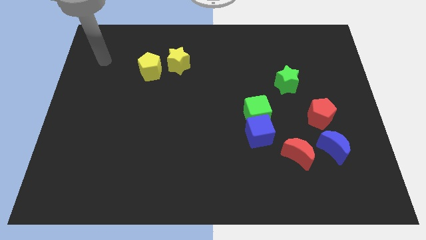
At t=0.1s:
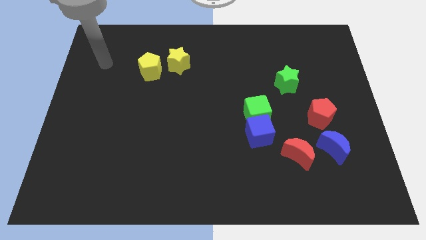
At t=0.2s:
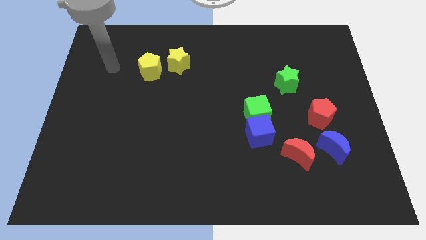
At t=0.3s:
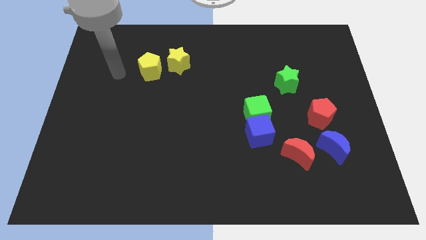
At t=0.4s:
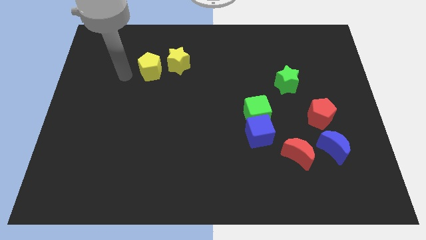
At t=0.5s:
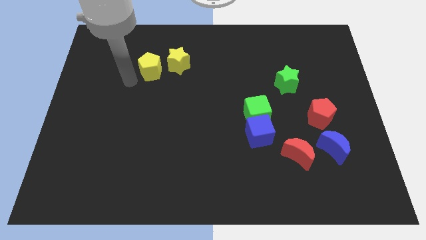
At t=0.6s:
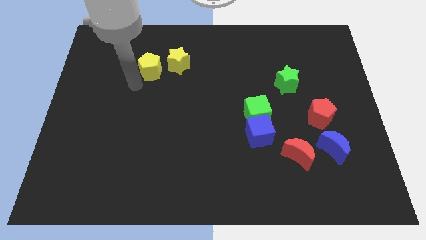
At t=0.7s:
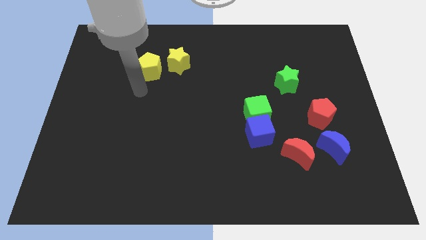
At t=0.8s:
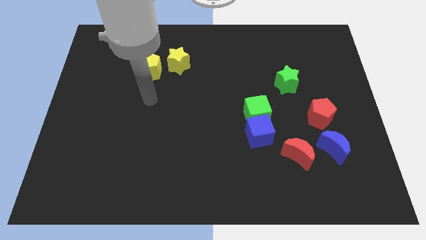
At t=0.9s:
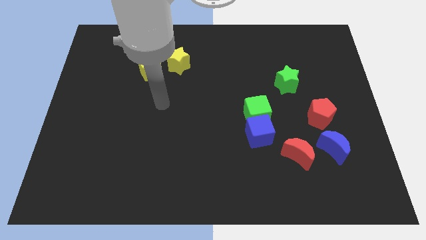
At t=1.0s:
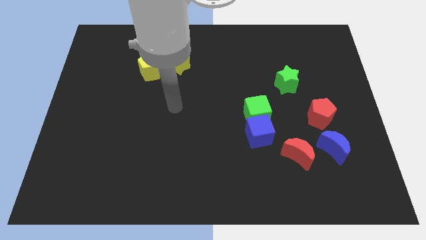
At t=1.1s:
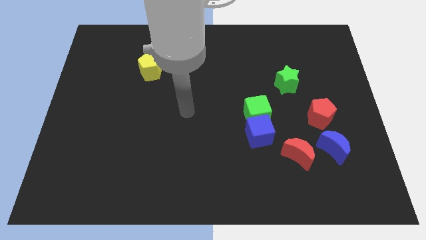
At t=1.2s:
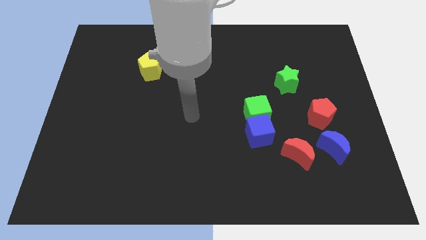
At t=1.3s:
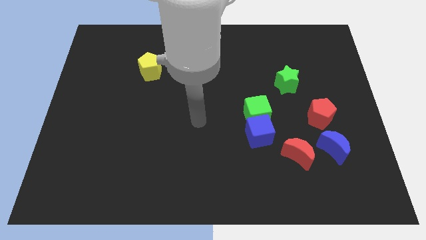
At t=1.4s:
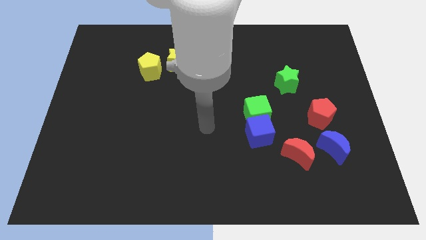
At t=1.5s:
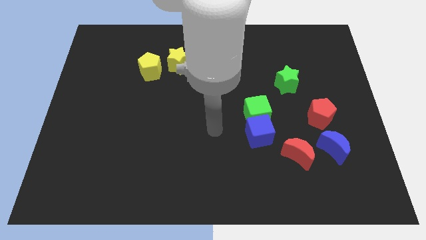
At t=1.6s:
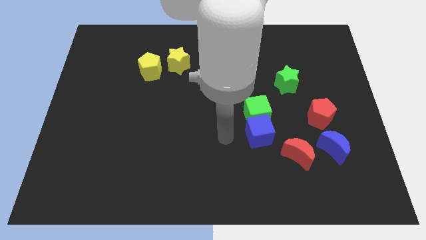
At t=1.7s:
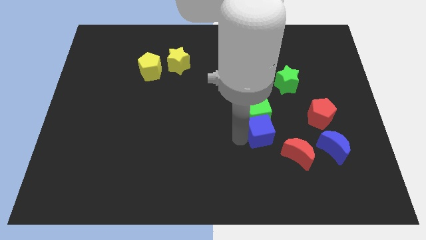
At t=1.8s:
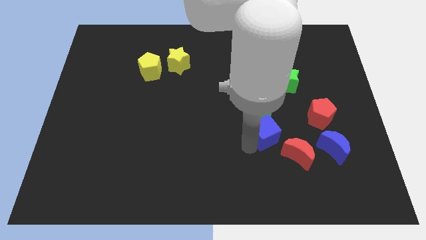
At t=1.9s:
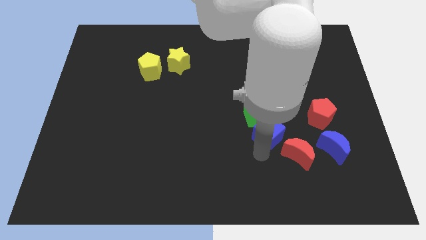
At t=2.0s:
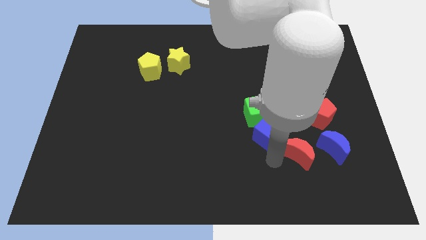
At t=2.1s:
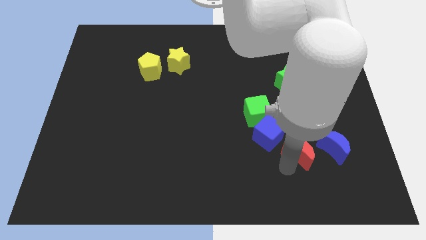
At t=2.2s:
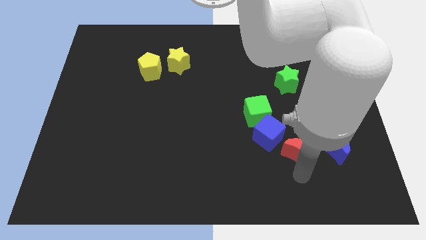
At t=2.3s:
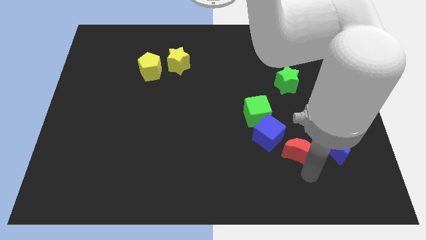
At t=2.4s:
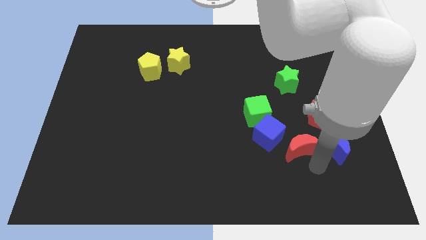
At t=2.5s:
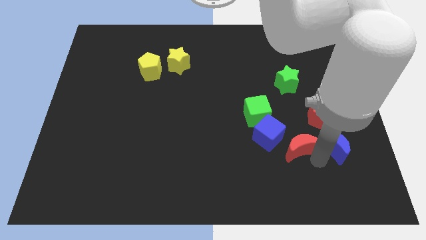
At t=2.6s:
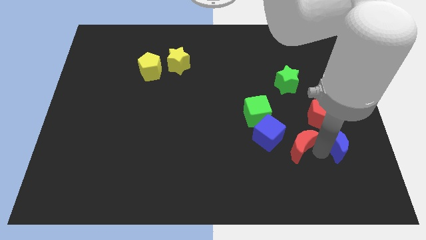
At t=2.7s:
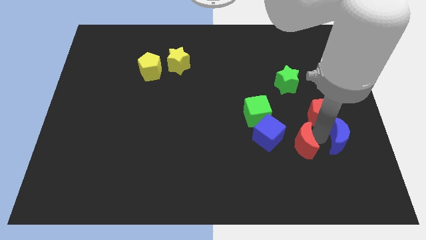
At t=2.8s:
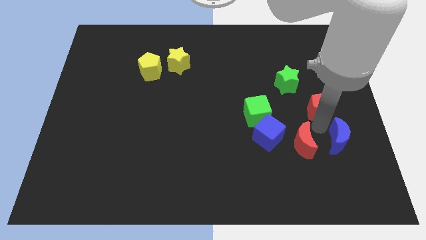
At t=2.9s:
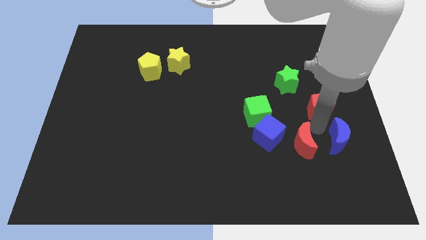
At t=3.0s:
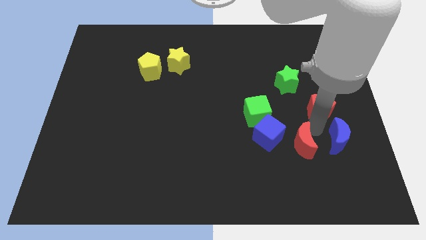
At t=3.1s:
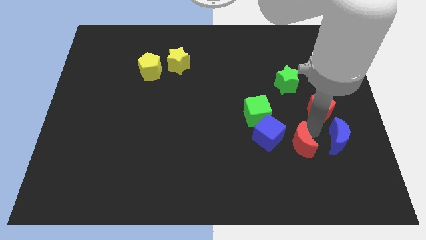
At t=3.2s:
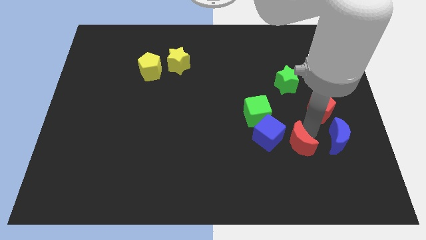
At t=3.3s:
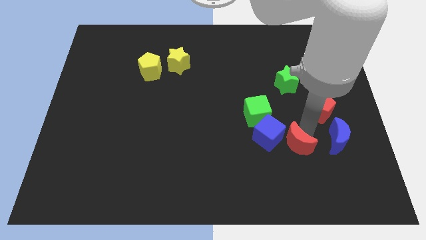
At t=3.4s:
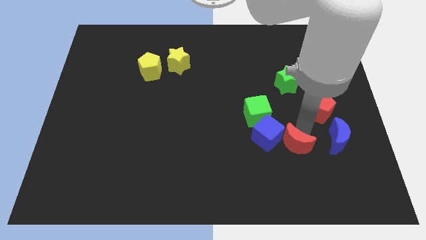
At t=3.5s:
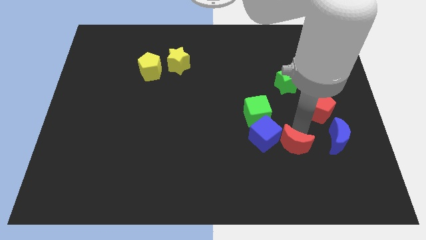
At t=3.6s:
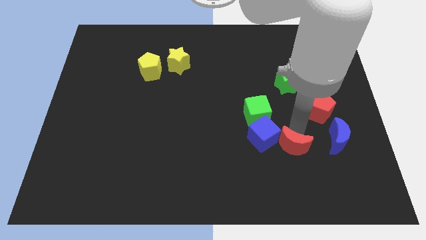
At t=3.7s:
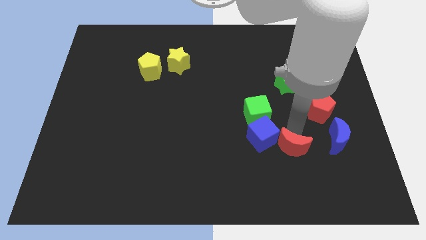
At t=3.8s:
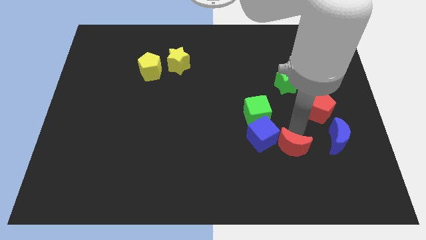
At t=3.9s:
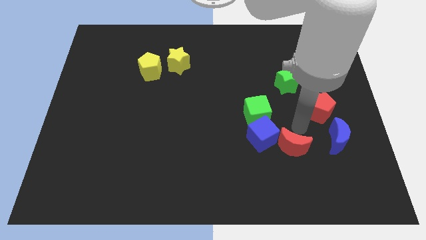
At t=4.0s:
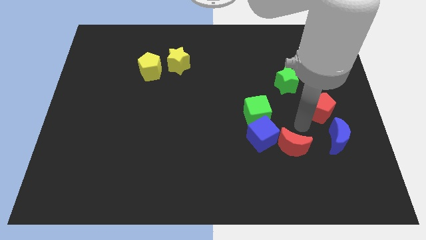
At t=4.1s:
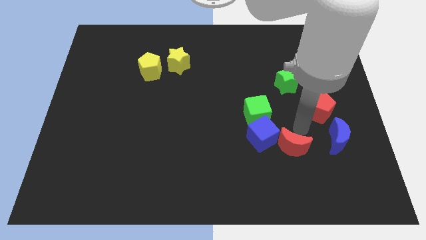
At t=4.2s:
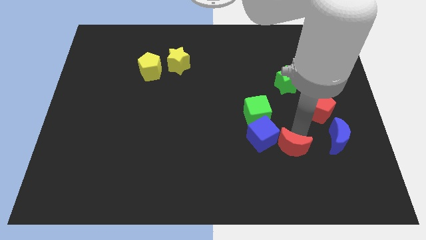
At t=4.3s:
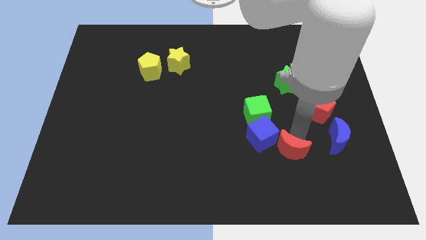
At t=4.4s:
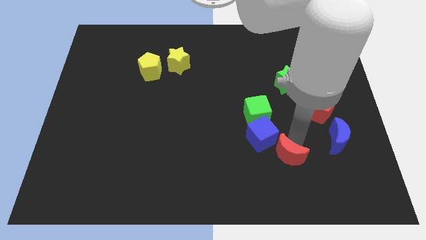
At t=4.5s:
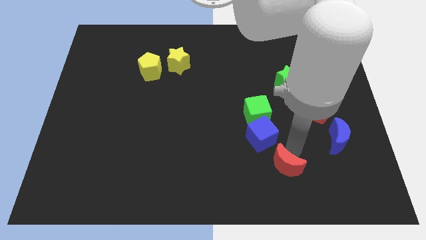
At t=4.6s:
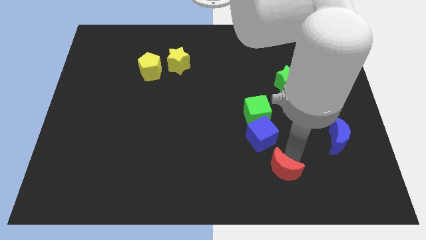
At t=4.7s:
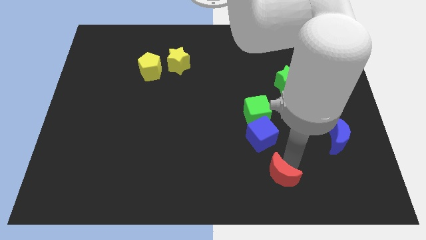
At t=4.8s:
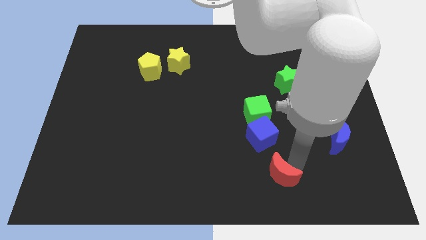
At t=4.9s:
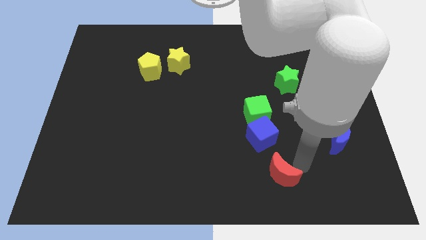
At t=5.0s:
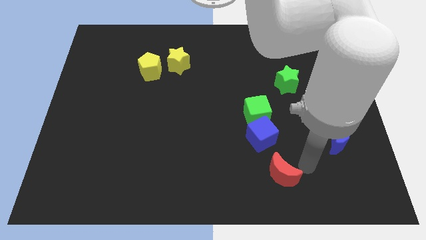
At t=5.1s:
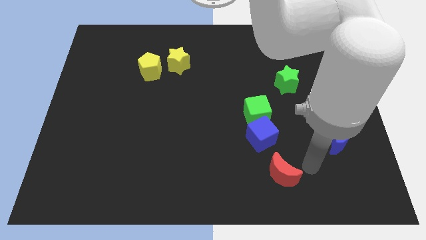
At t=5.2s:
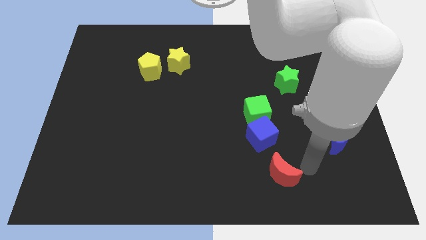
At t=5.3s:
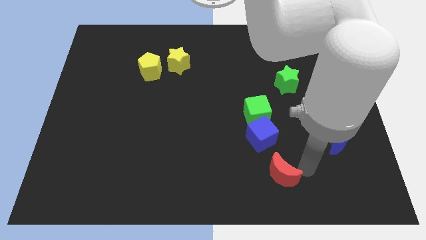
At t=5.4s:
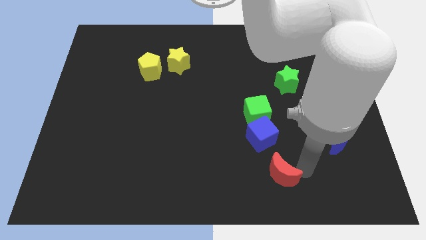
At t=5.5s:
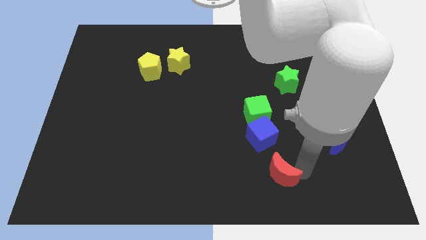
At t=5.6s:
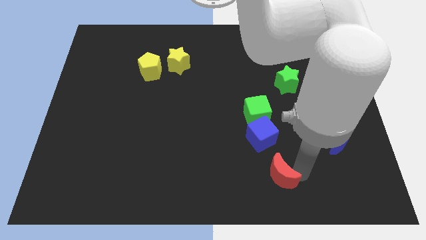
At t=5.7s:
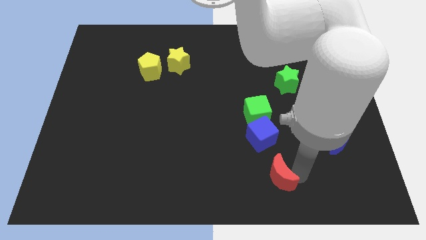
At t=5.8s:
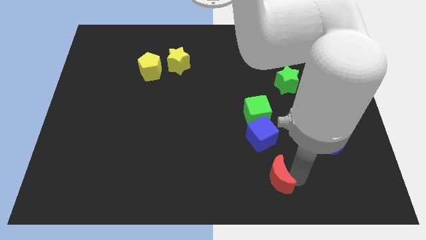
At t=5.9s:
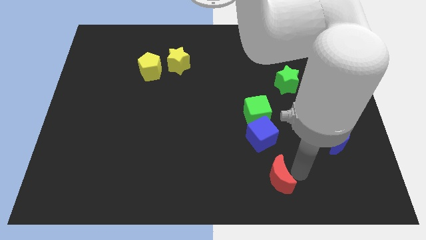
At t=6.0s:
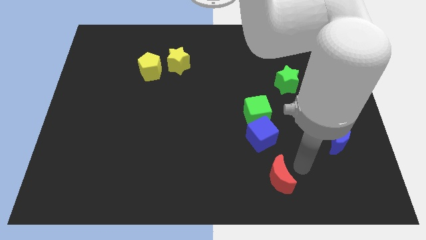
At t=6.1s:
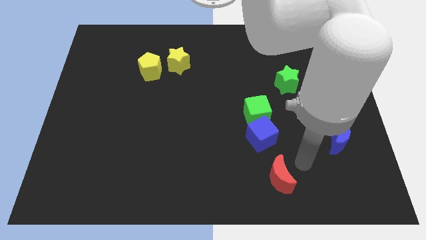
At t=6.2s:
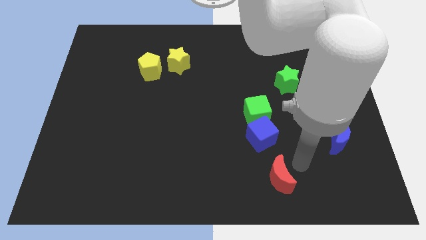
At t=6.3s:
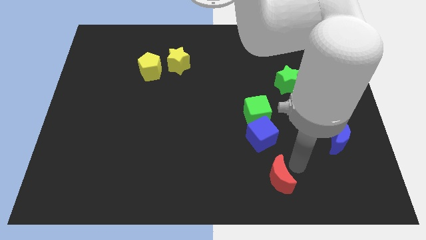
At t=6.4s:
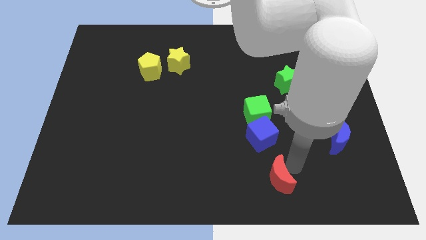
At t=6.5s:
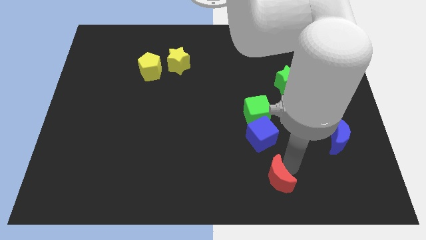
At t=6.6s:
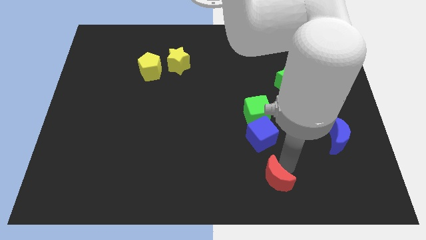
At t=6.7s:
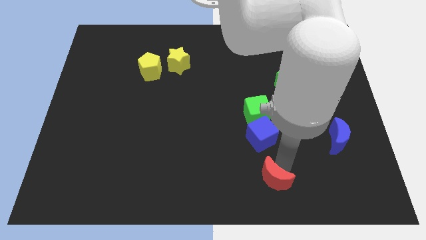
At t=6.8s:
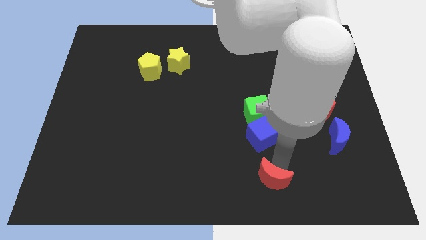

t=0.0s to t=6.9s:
push the red moon to the bottom
